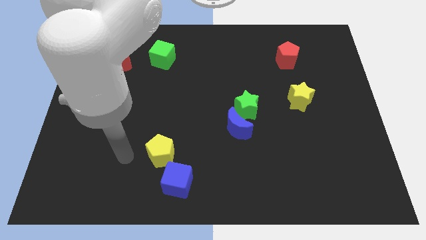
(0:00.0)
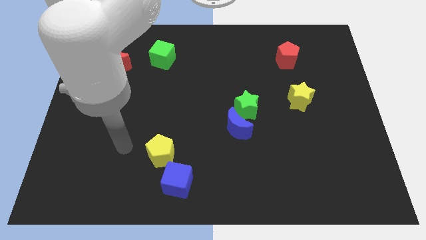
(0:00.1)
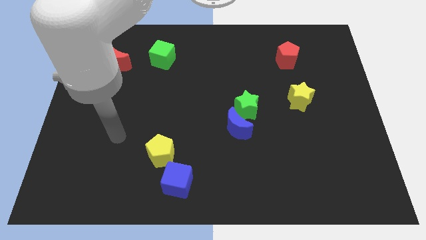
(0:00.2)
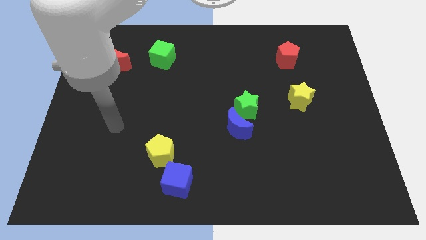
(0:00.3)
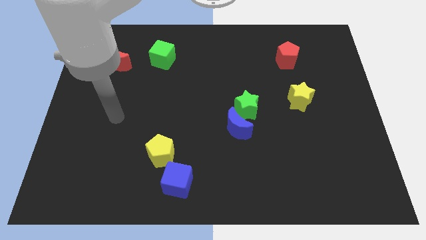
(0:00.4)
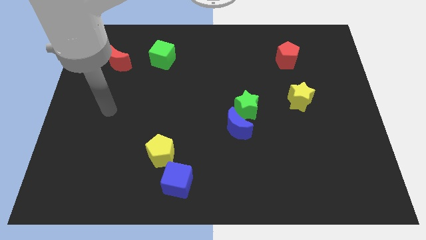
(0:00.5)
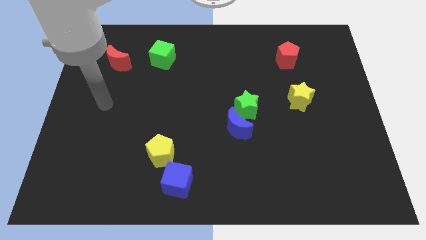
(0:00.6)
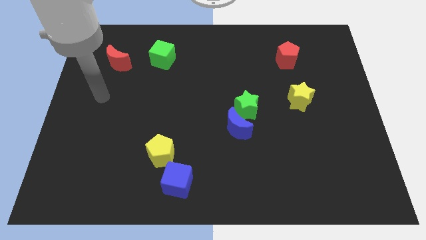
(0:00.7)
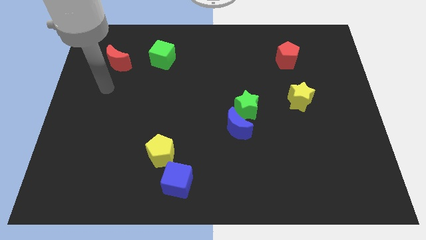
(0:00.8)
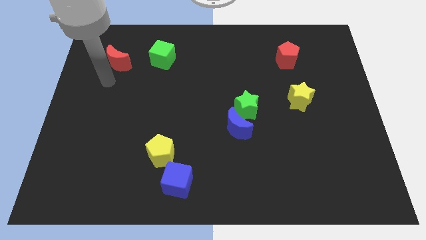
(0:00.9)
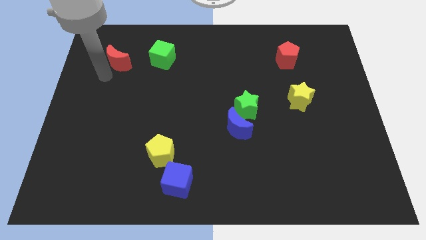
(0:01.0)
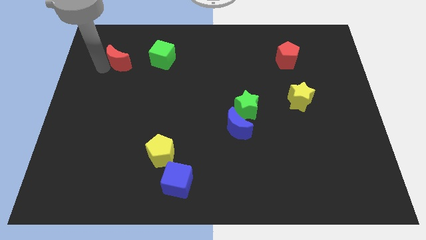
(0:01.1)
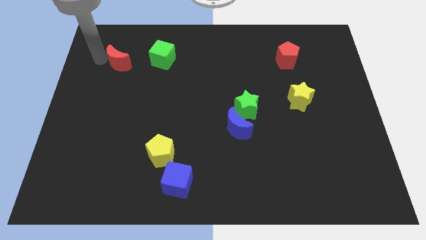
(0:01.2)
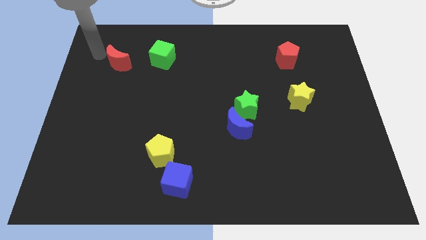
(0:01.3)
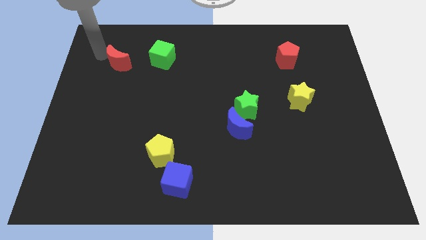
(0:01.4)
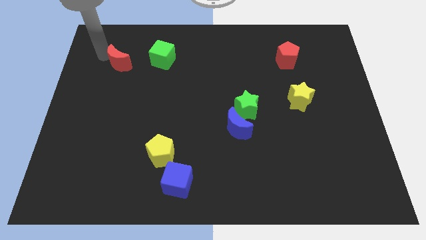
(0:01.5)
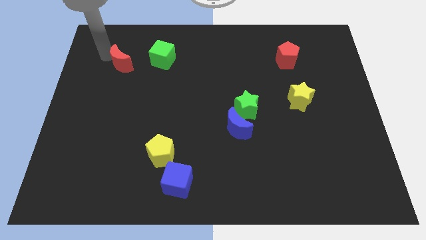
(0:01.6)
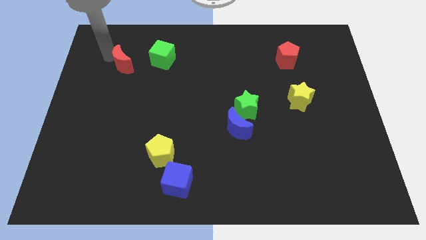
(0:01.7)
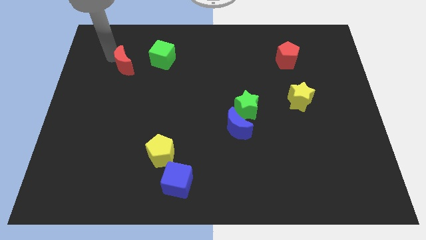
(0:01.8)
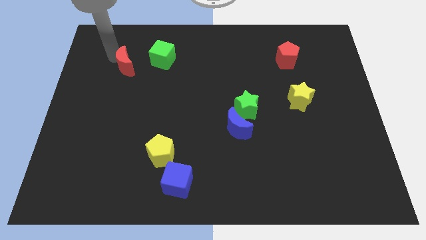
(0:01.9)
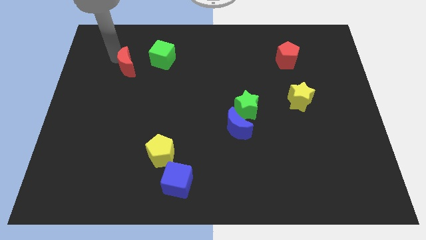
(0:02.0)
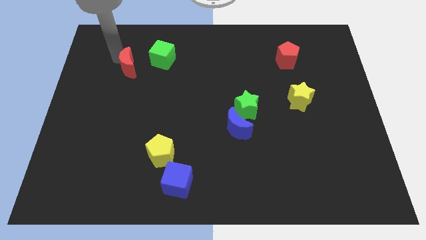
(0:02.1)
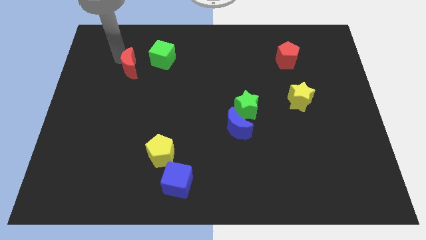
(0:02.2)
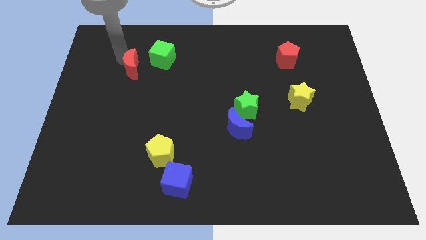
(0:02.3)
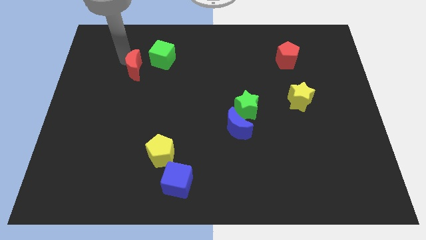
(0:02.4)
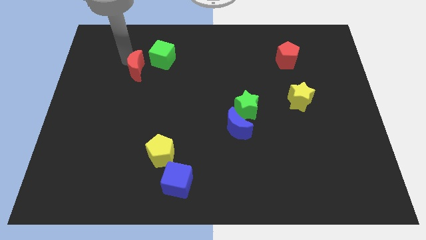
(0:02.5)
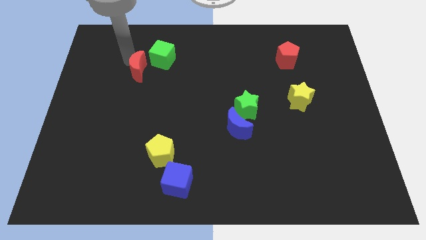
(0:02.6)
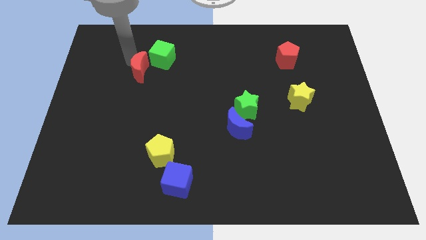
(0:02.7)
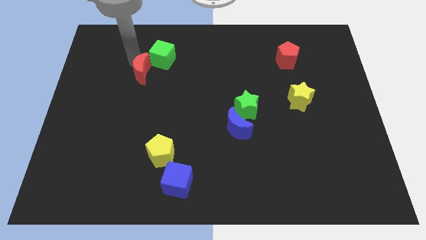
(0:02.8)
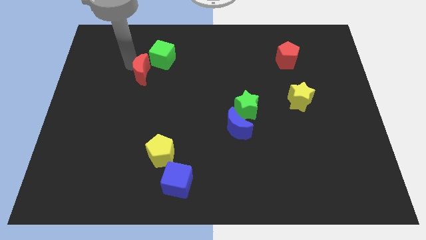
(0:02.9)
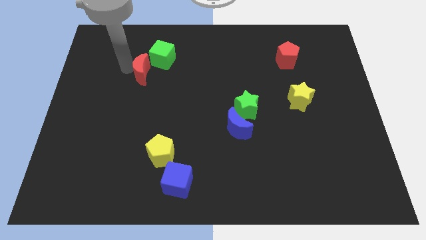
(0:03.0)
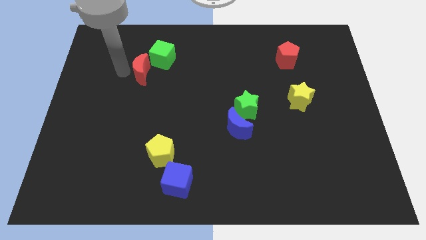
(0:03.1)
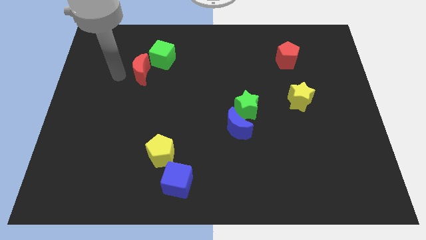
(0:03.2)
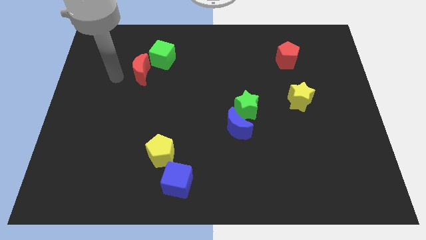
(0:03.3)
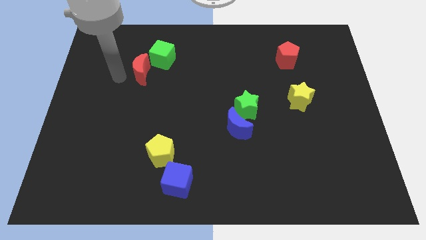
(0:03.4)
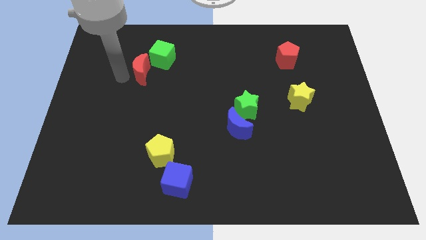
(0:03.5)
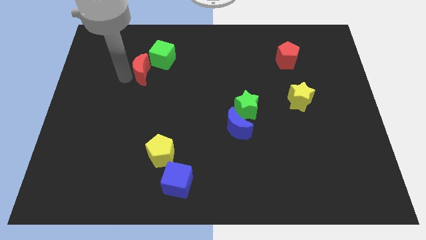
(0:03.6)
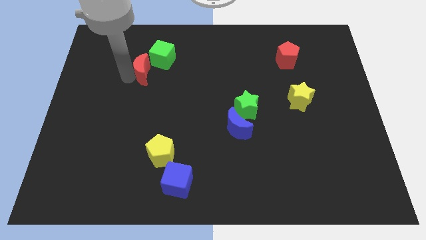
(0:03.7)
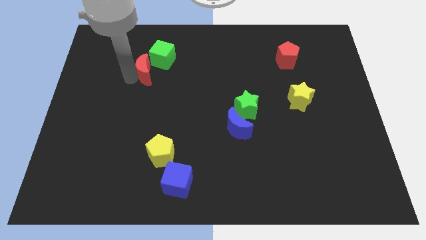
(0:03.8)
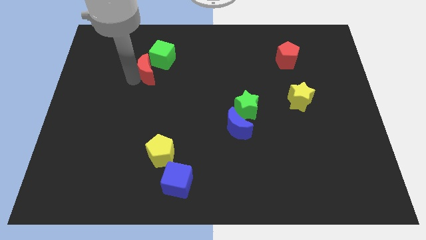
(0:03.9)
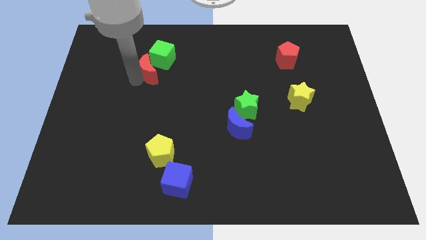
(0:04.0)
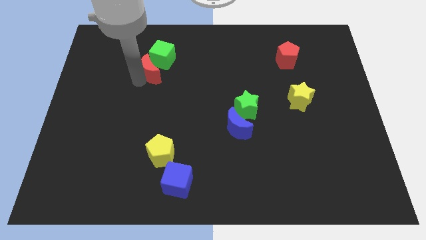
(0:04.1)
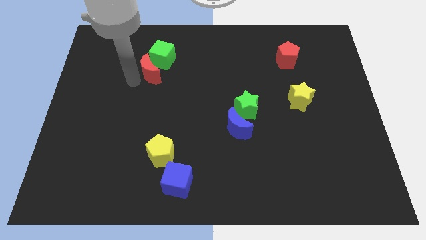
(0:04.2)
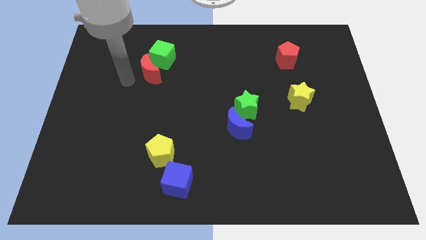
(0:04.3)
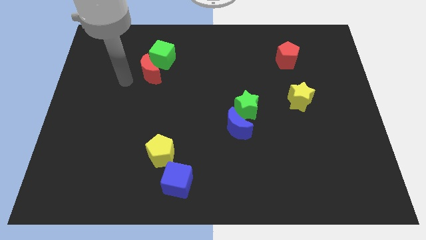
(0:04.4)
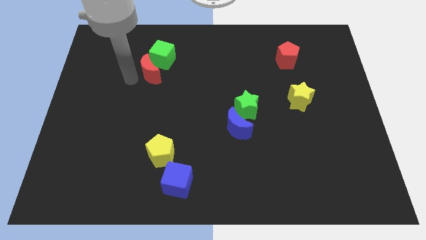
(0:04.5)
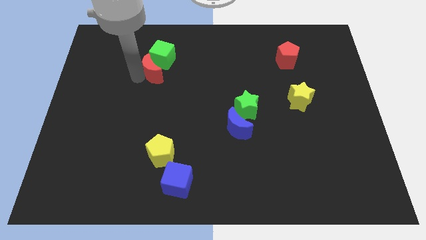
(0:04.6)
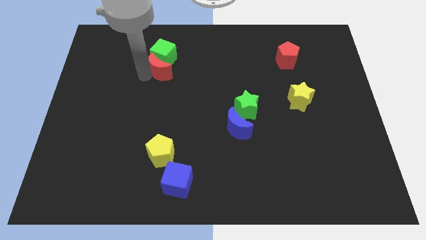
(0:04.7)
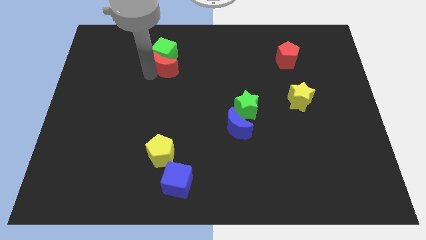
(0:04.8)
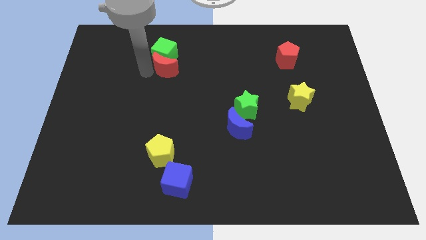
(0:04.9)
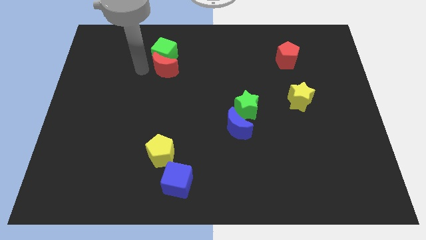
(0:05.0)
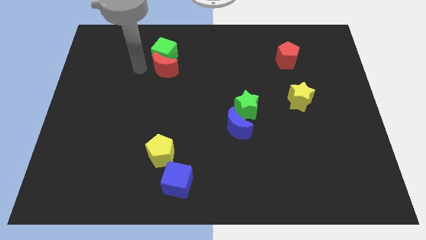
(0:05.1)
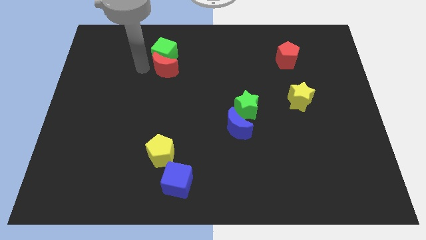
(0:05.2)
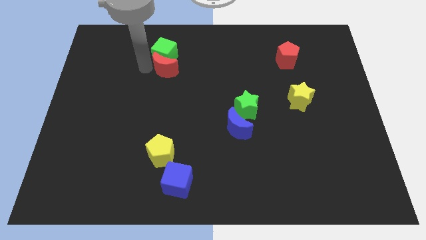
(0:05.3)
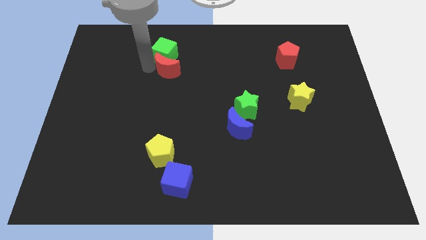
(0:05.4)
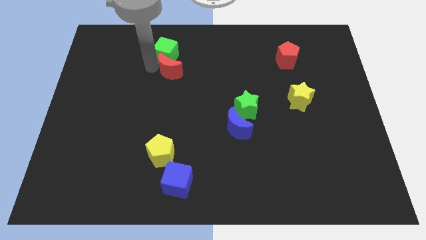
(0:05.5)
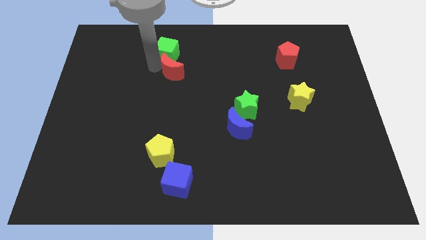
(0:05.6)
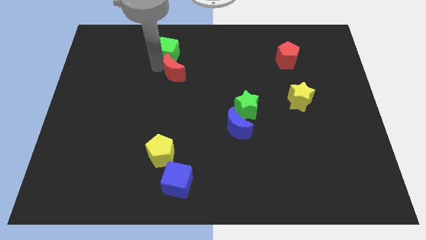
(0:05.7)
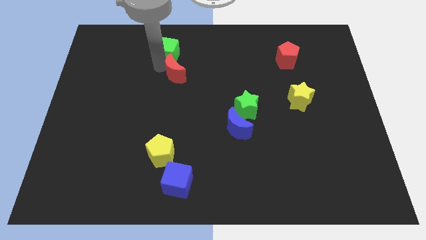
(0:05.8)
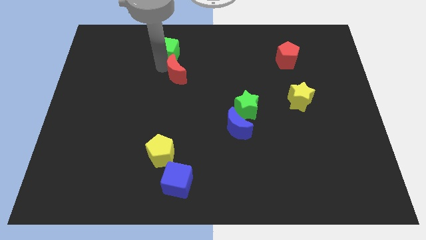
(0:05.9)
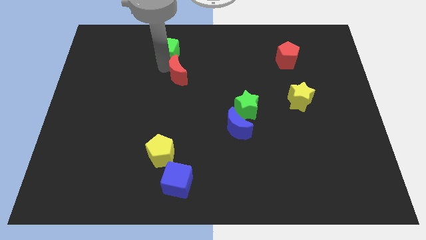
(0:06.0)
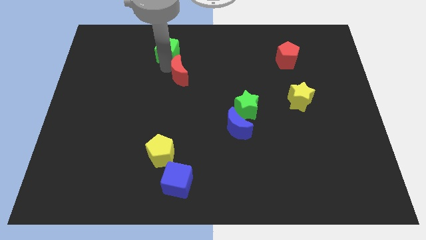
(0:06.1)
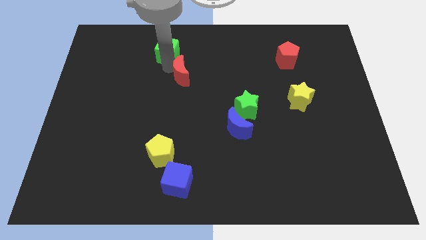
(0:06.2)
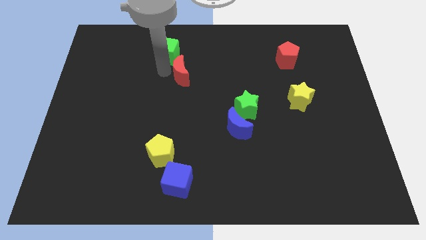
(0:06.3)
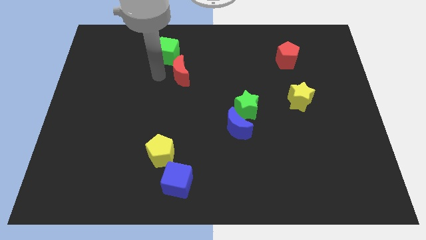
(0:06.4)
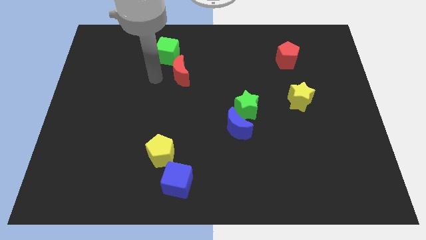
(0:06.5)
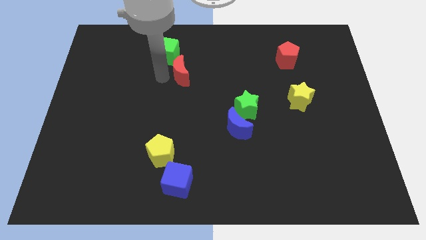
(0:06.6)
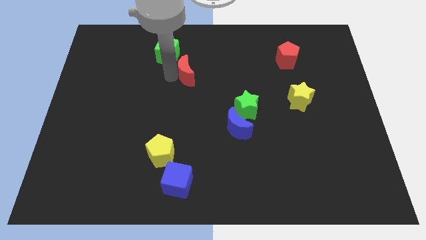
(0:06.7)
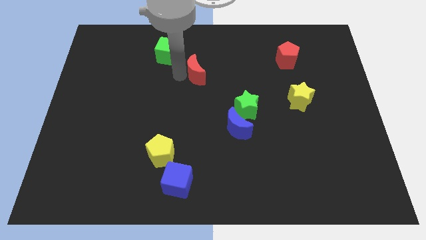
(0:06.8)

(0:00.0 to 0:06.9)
push the red moon right

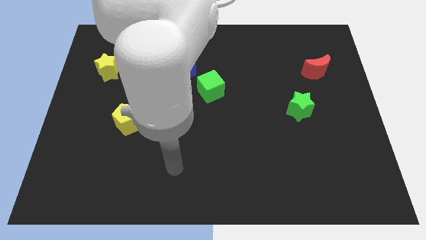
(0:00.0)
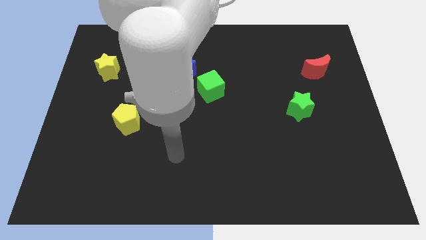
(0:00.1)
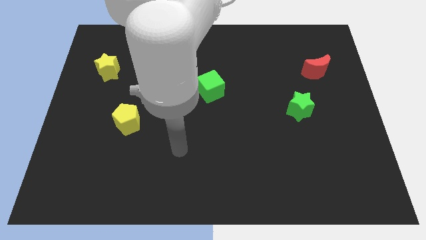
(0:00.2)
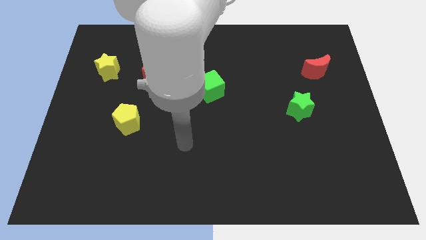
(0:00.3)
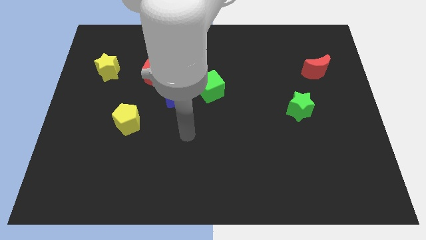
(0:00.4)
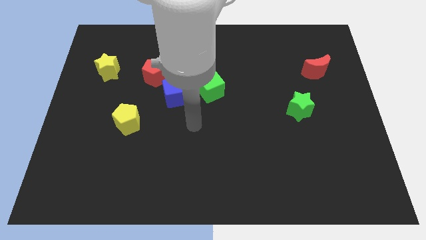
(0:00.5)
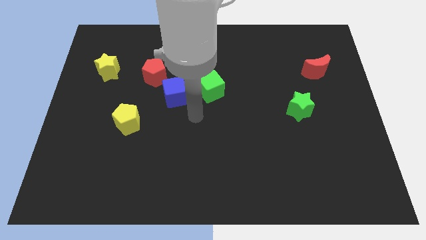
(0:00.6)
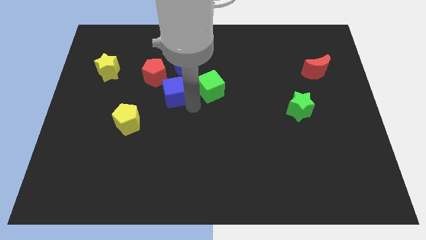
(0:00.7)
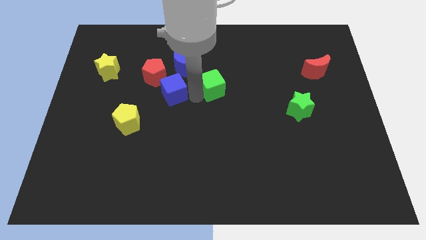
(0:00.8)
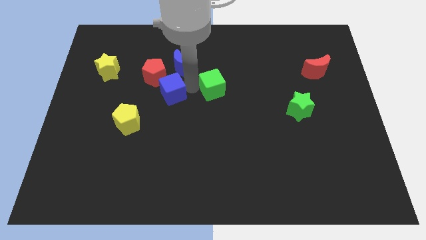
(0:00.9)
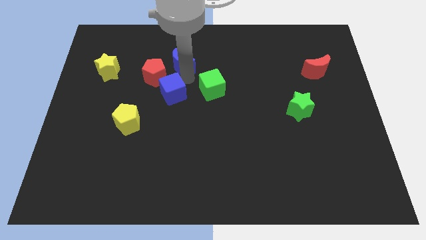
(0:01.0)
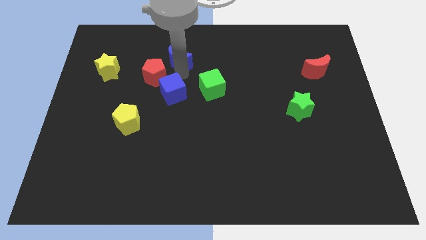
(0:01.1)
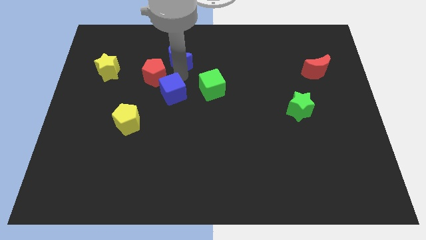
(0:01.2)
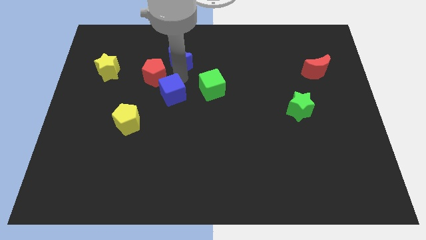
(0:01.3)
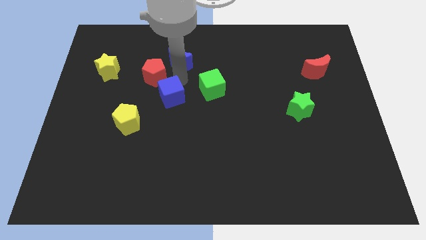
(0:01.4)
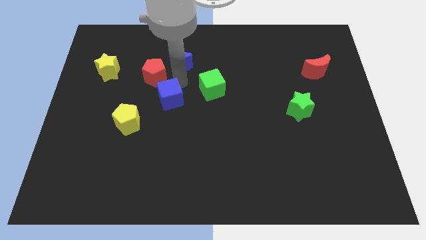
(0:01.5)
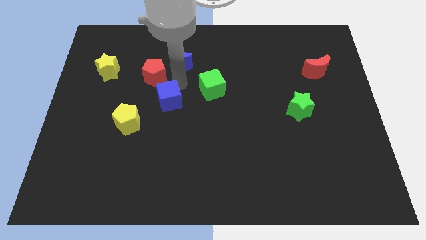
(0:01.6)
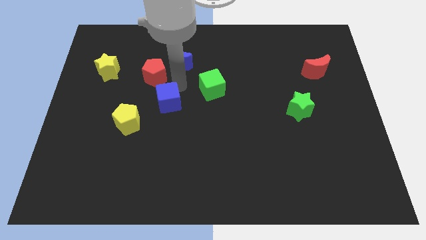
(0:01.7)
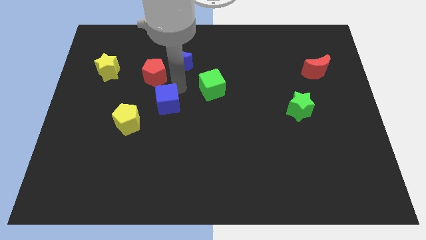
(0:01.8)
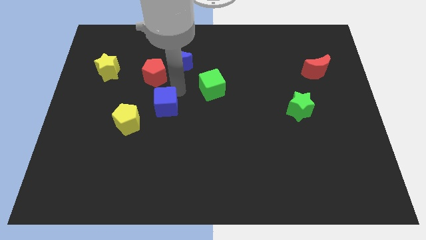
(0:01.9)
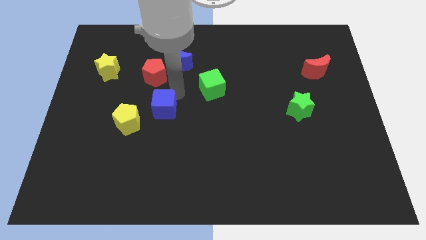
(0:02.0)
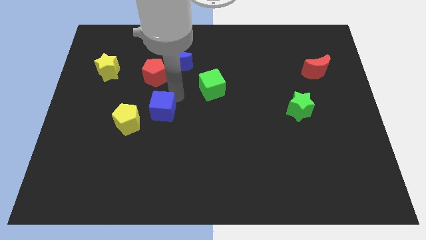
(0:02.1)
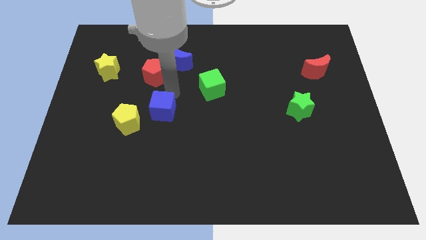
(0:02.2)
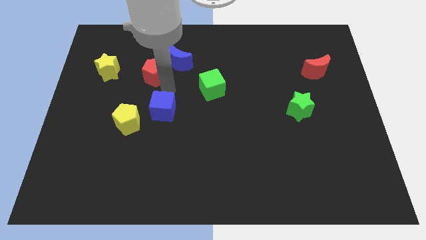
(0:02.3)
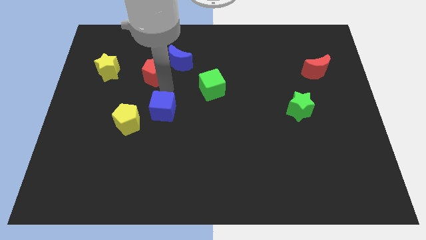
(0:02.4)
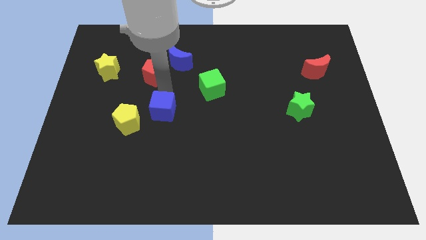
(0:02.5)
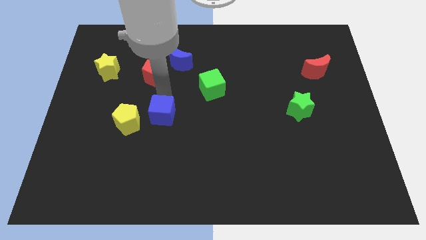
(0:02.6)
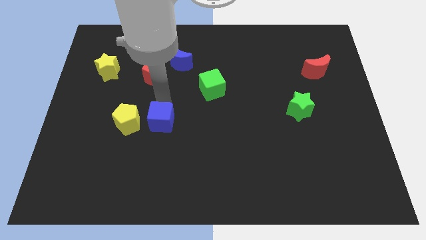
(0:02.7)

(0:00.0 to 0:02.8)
move the blue cube a bit downwards
